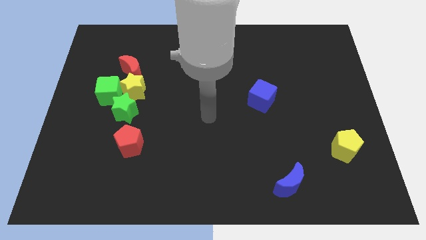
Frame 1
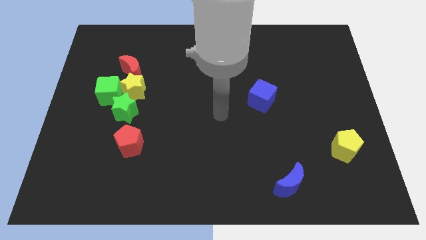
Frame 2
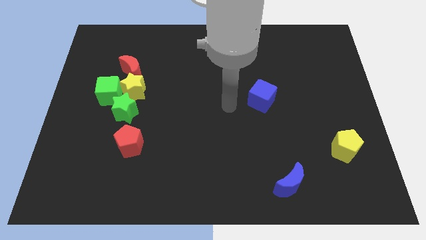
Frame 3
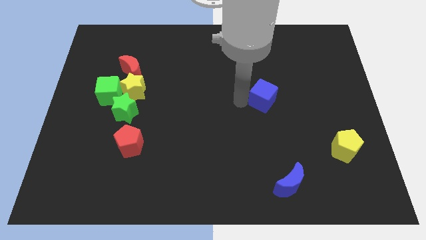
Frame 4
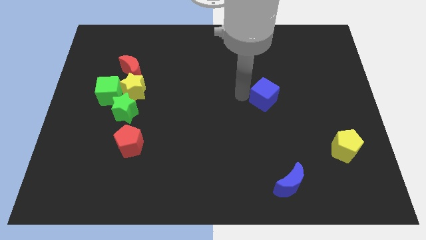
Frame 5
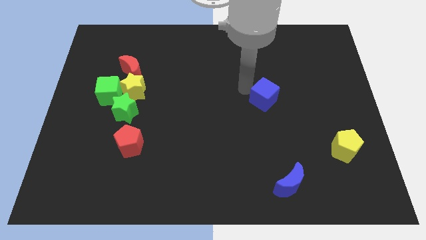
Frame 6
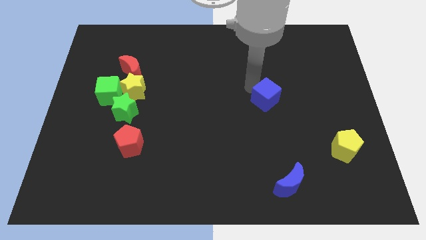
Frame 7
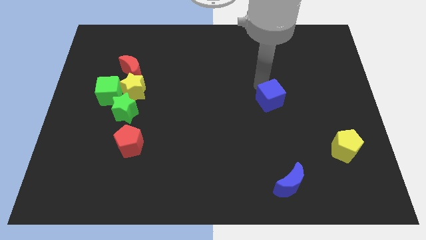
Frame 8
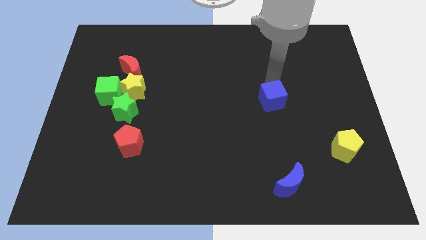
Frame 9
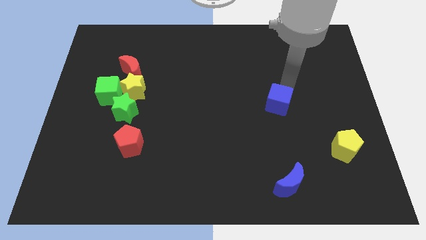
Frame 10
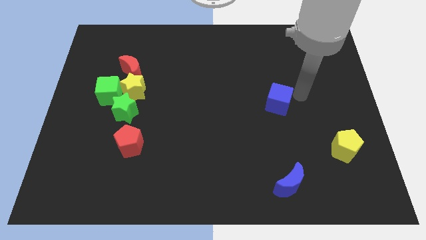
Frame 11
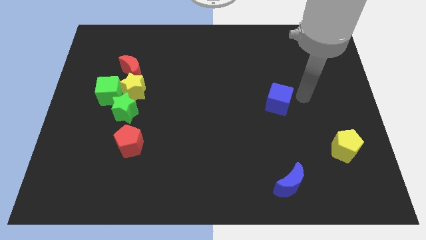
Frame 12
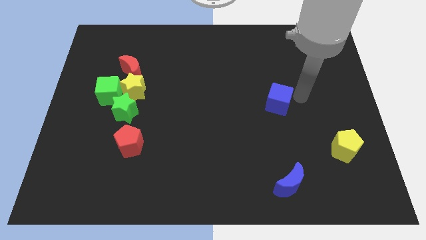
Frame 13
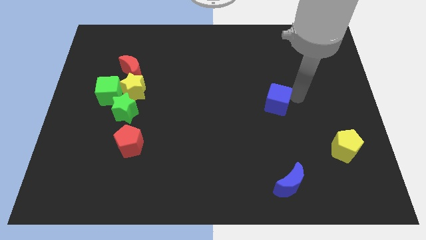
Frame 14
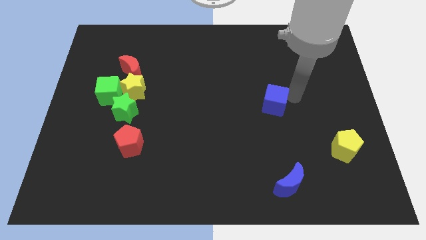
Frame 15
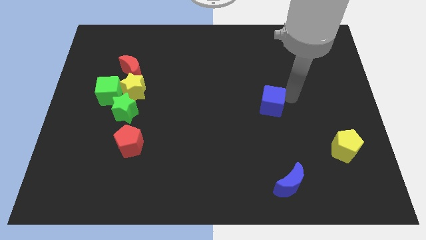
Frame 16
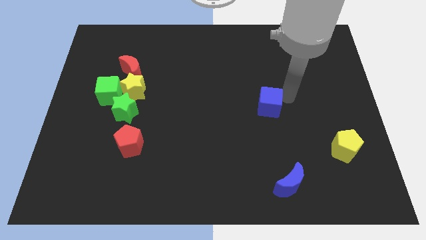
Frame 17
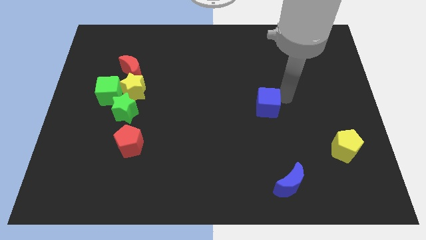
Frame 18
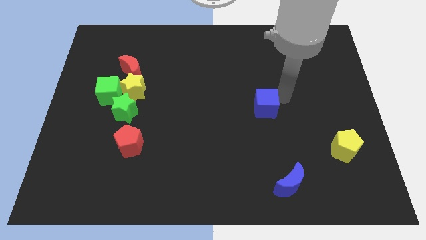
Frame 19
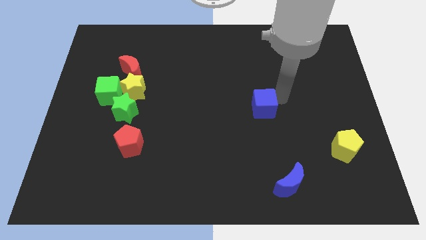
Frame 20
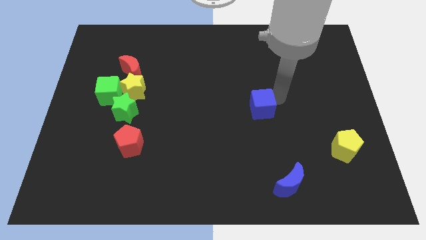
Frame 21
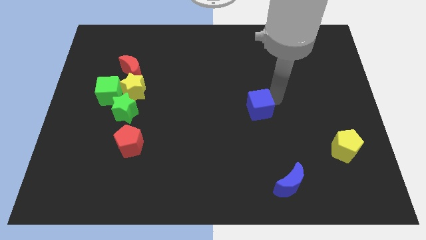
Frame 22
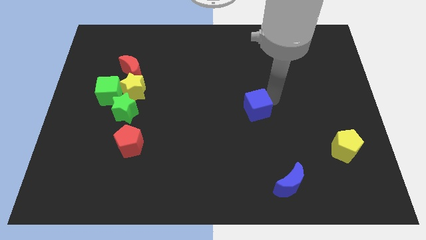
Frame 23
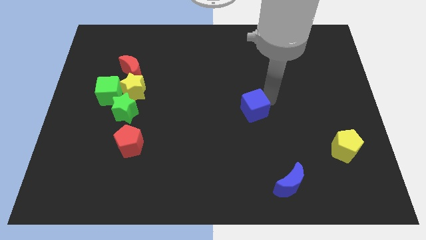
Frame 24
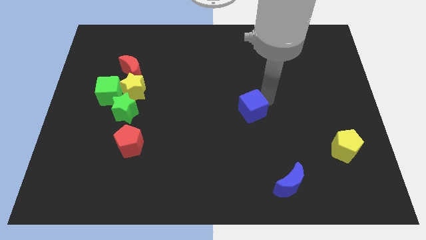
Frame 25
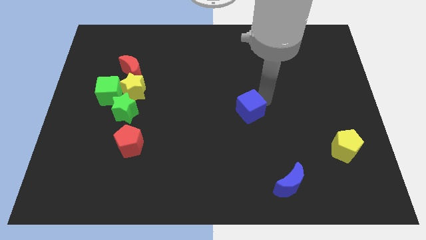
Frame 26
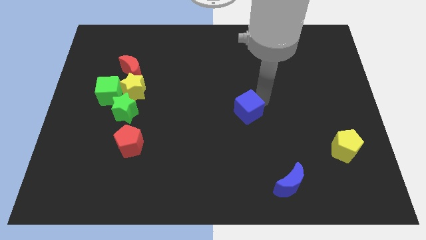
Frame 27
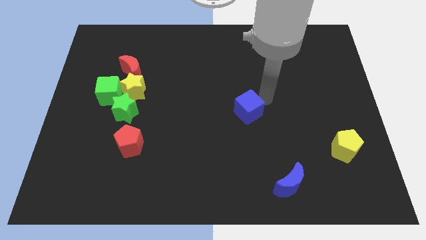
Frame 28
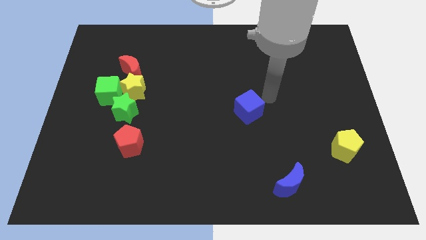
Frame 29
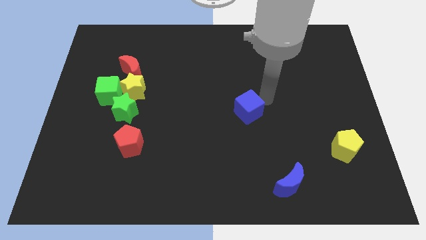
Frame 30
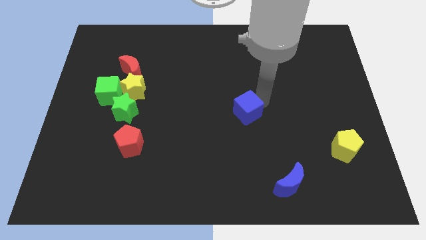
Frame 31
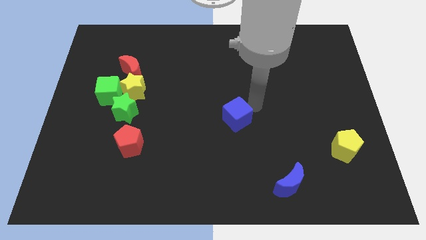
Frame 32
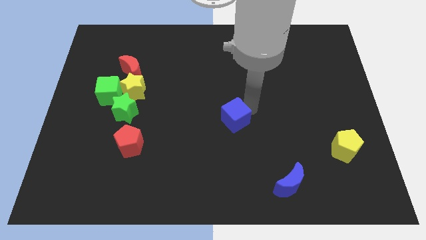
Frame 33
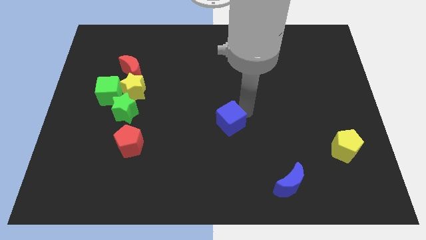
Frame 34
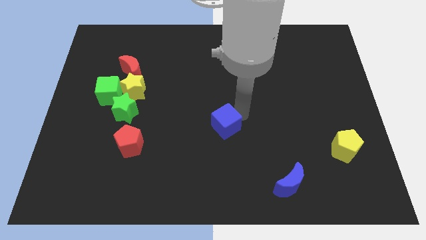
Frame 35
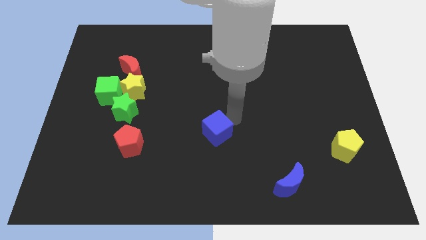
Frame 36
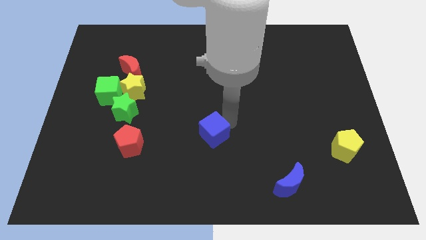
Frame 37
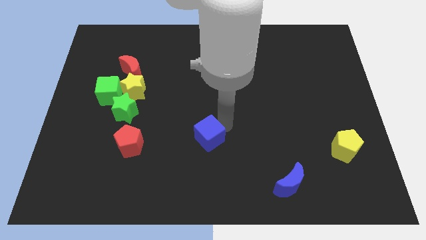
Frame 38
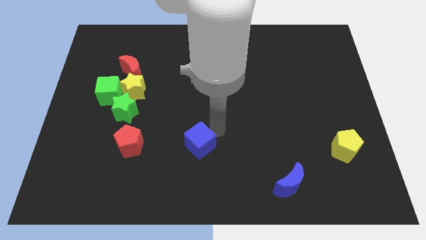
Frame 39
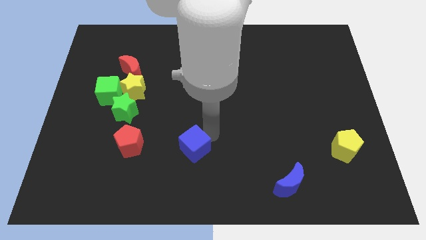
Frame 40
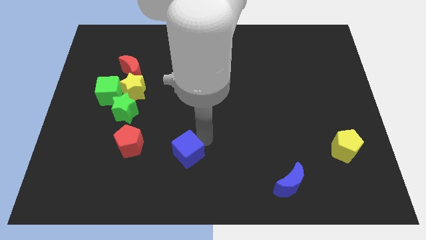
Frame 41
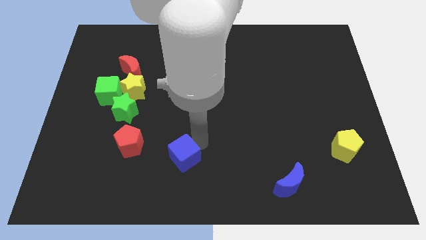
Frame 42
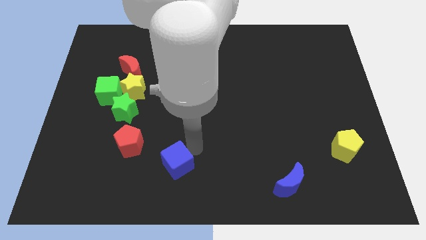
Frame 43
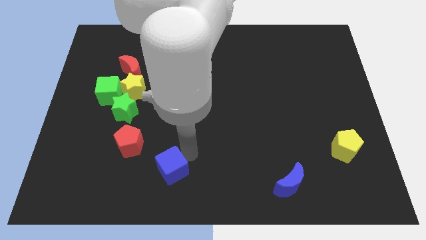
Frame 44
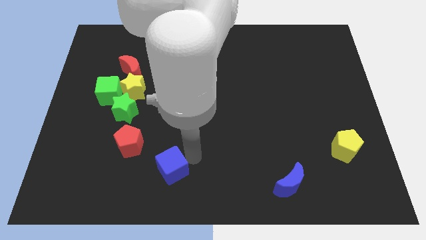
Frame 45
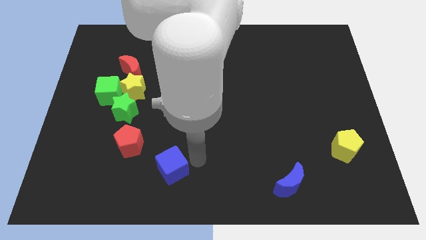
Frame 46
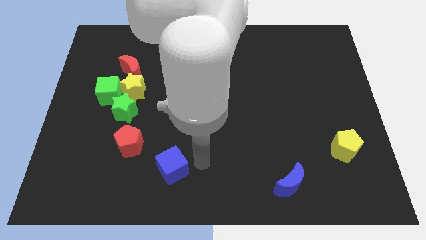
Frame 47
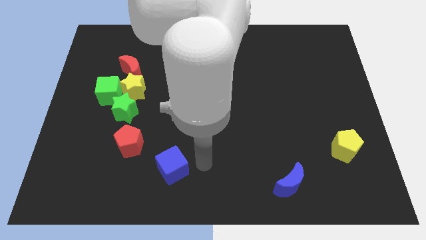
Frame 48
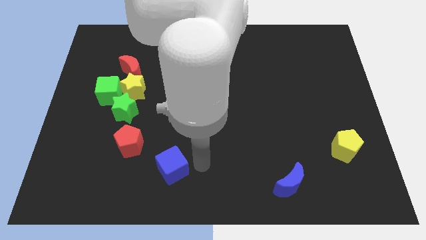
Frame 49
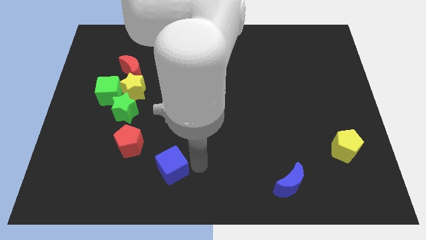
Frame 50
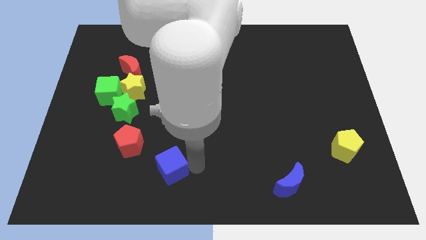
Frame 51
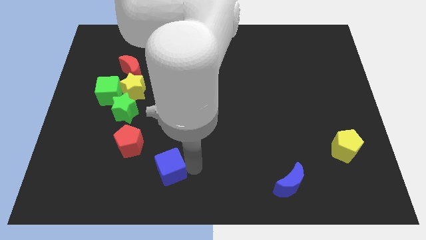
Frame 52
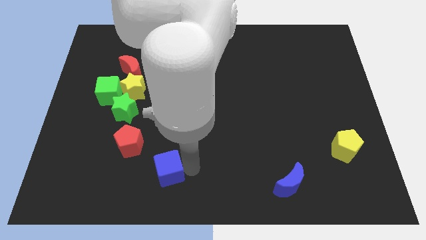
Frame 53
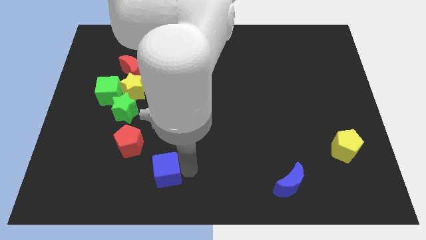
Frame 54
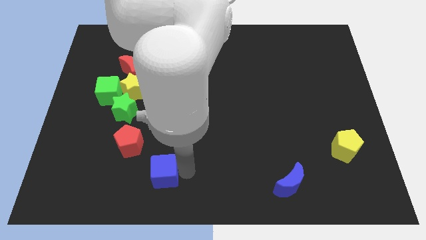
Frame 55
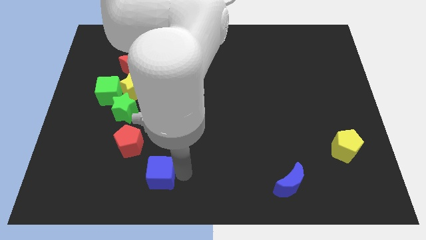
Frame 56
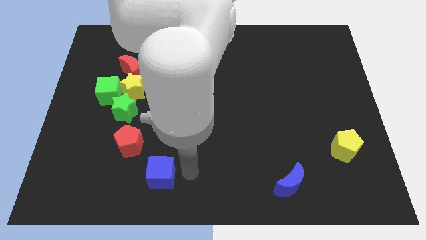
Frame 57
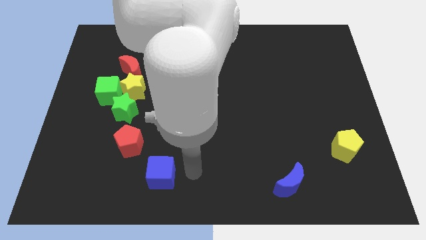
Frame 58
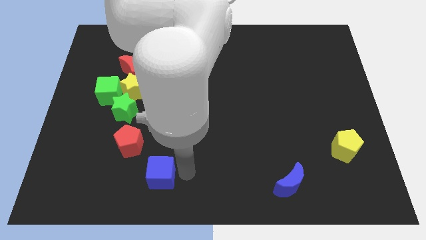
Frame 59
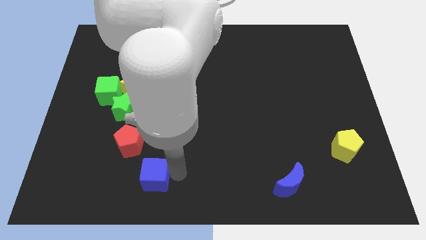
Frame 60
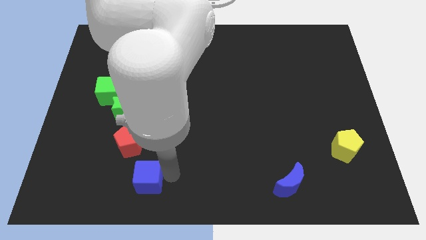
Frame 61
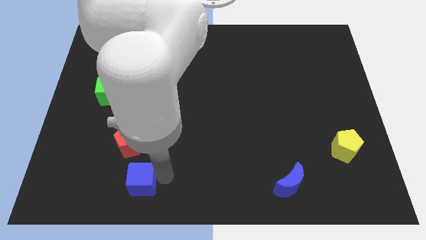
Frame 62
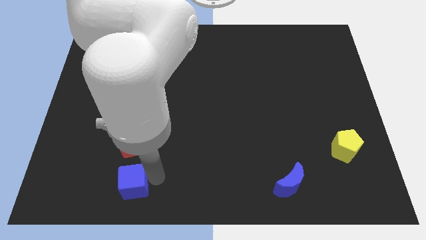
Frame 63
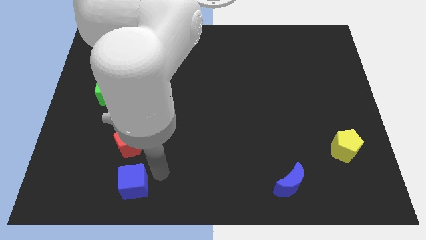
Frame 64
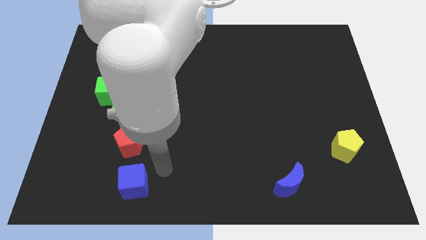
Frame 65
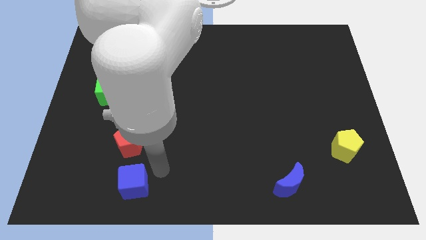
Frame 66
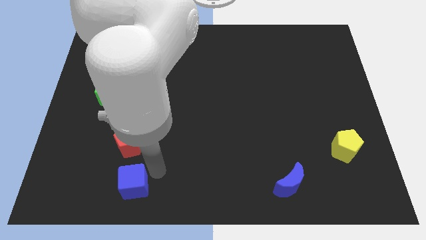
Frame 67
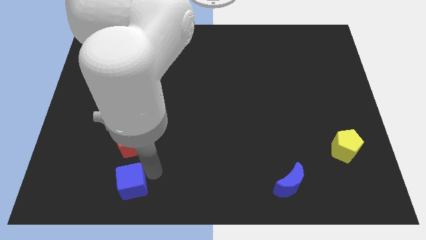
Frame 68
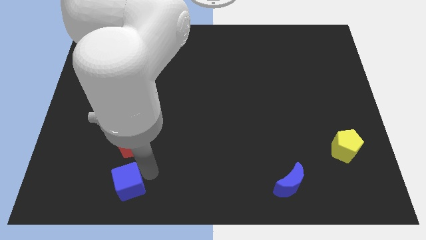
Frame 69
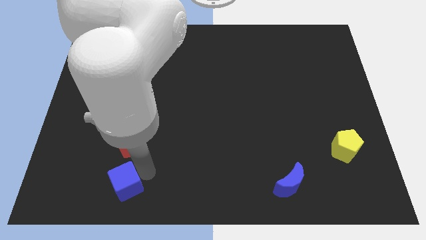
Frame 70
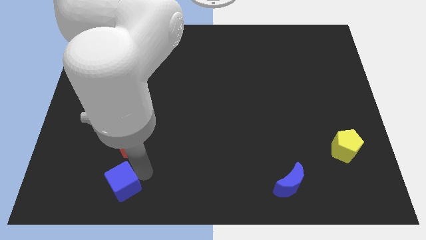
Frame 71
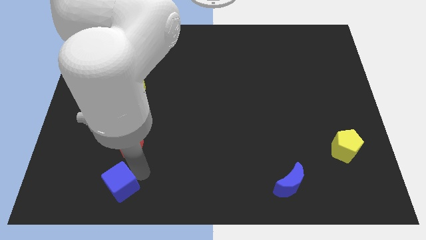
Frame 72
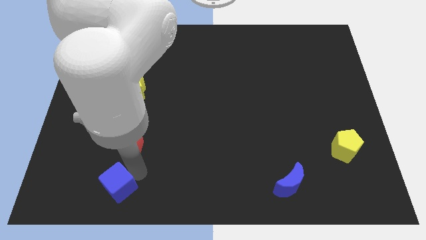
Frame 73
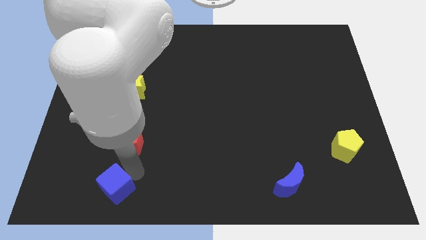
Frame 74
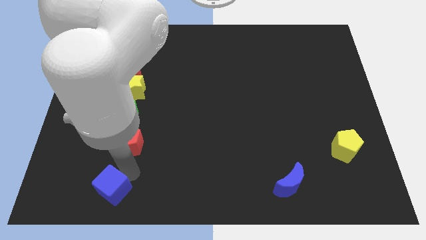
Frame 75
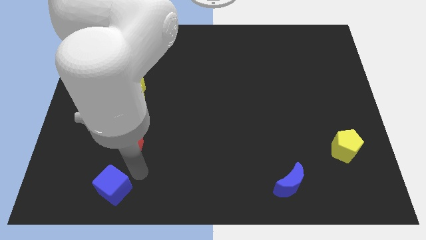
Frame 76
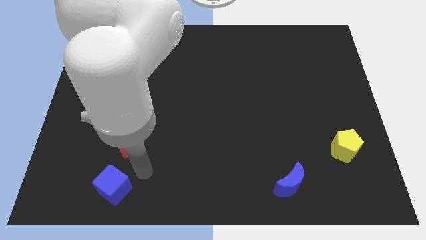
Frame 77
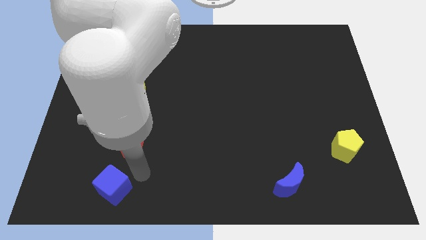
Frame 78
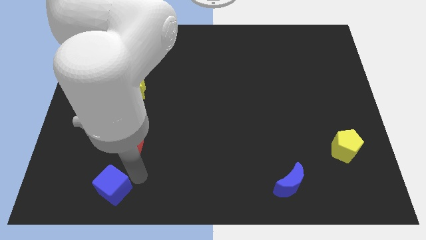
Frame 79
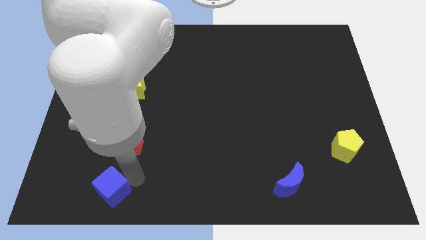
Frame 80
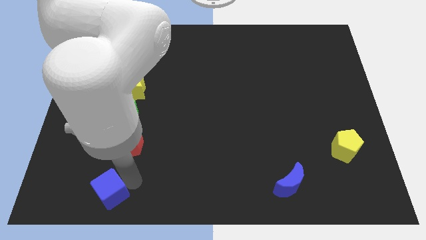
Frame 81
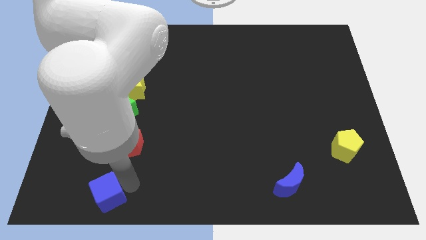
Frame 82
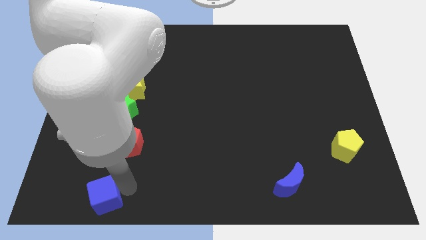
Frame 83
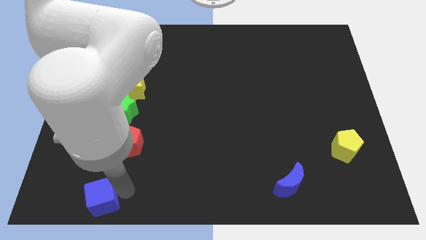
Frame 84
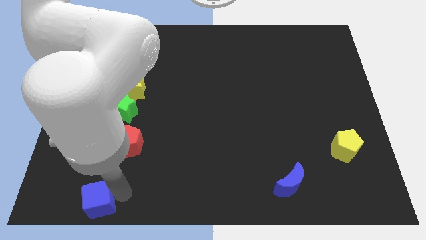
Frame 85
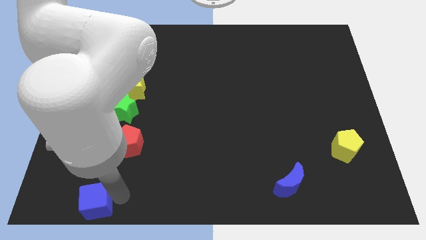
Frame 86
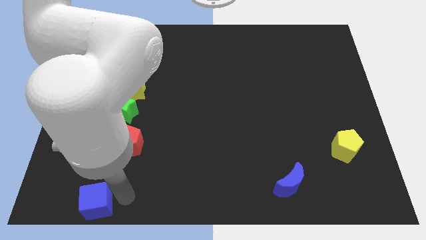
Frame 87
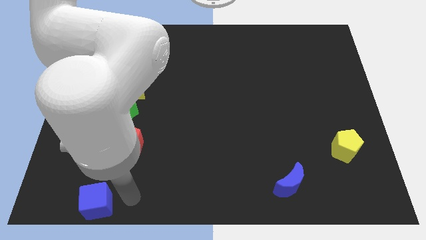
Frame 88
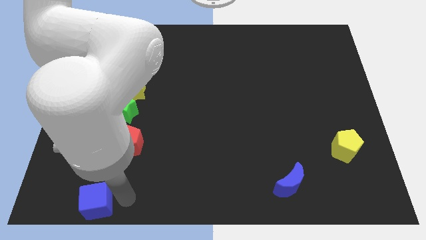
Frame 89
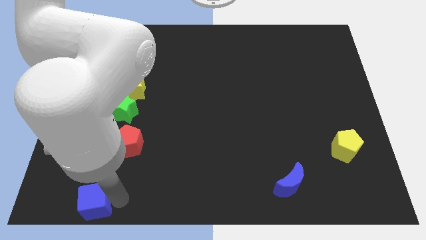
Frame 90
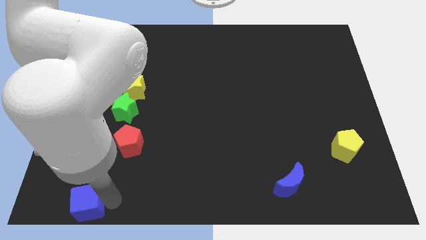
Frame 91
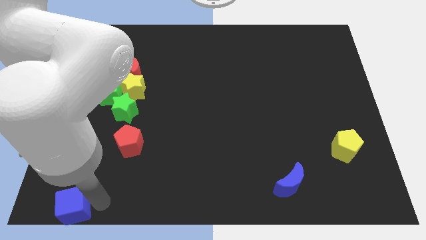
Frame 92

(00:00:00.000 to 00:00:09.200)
slide the blue cube to the bottom left corner
